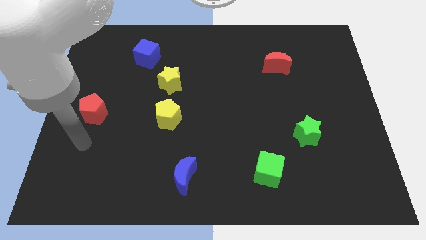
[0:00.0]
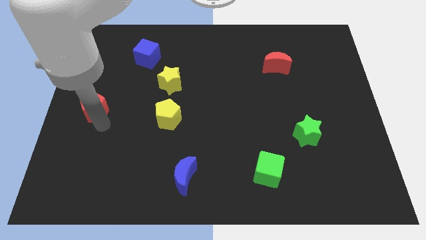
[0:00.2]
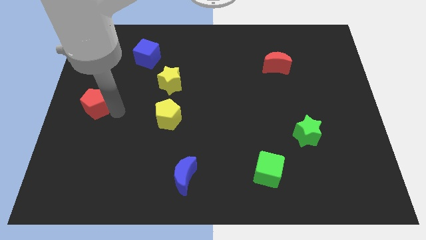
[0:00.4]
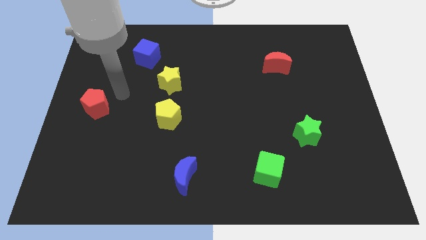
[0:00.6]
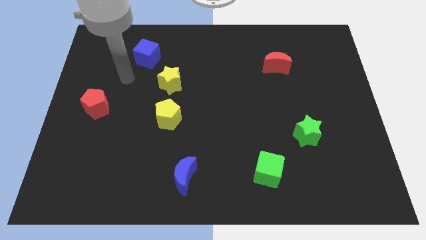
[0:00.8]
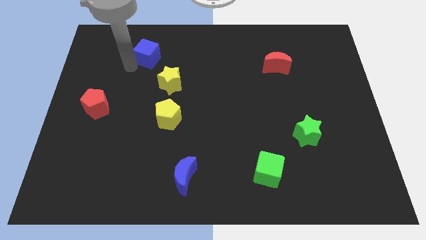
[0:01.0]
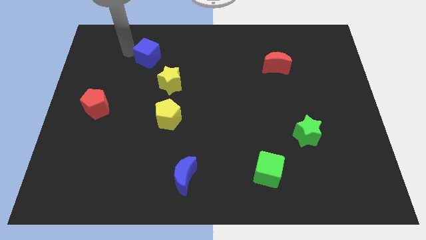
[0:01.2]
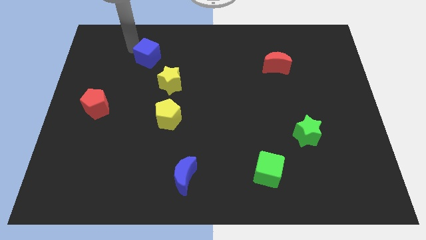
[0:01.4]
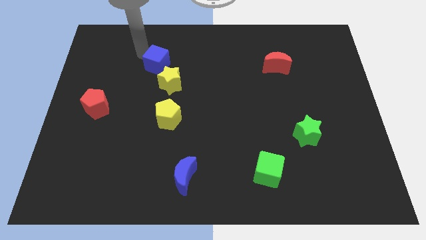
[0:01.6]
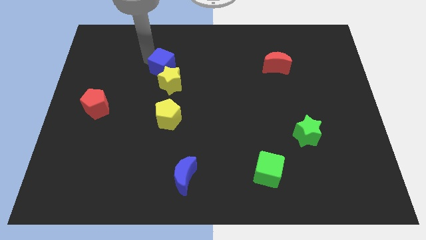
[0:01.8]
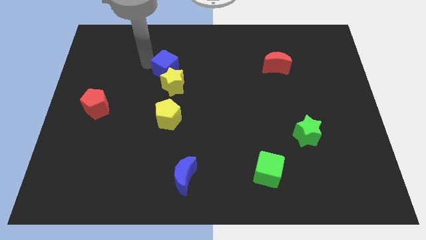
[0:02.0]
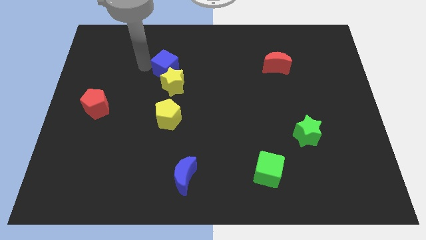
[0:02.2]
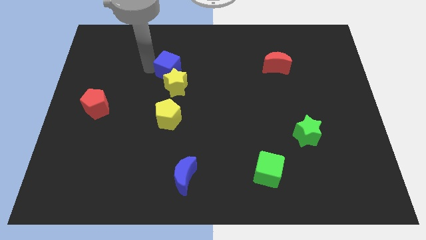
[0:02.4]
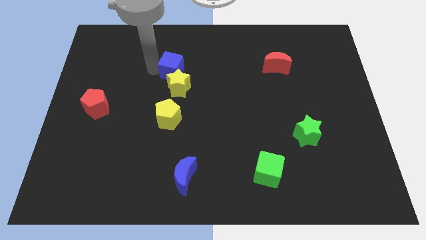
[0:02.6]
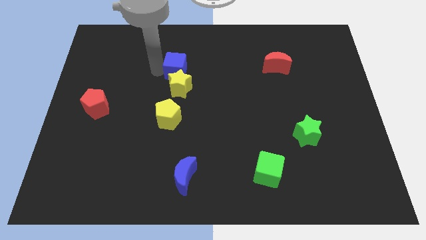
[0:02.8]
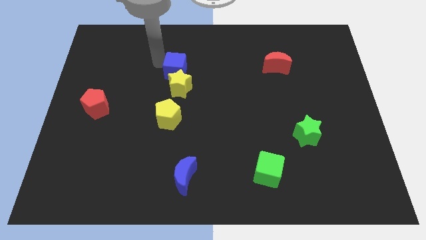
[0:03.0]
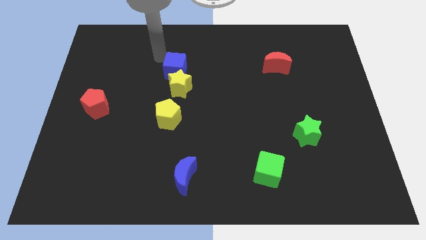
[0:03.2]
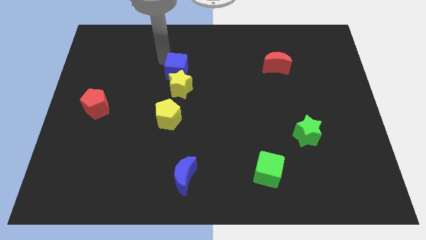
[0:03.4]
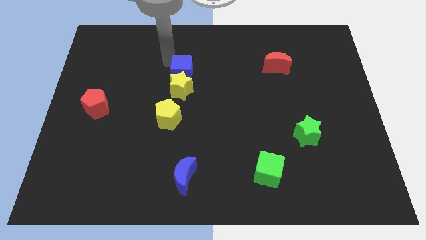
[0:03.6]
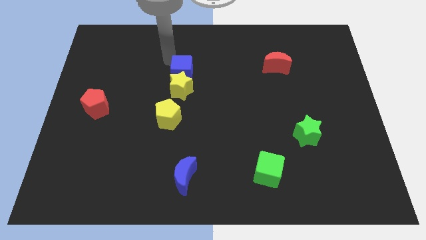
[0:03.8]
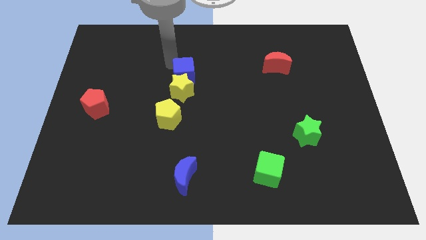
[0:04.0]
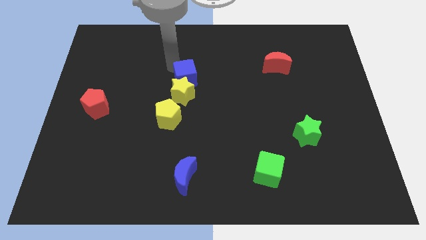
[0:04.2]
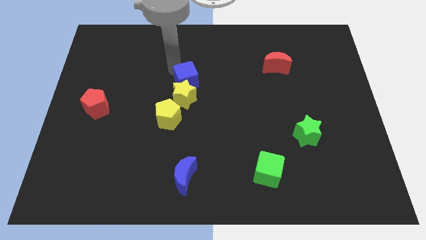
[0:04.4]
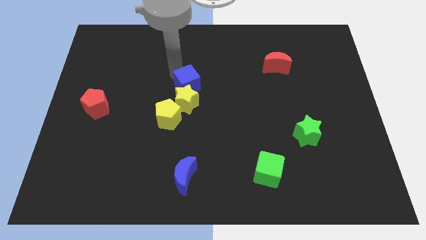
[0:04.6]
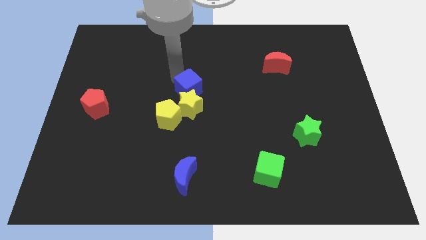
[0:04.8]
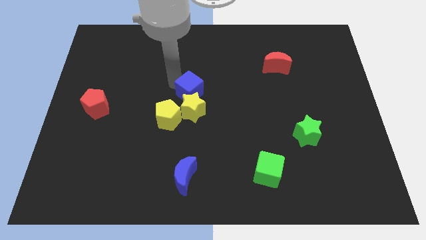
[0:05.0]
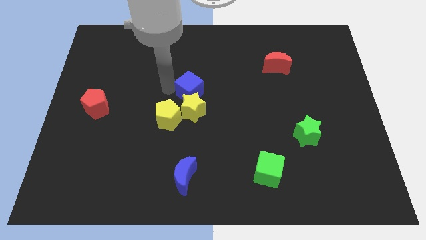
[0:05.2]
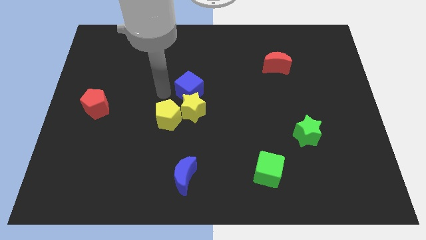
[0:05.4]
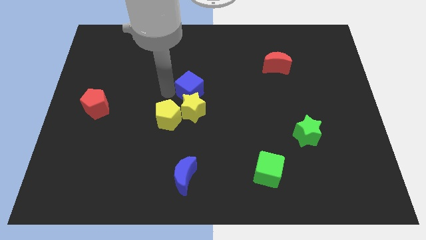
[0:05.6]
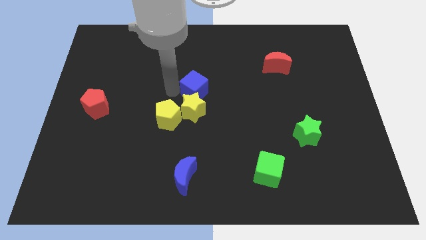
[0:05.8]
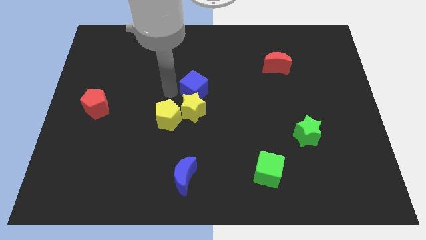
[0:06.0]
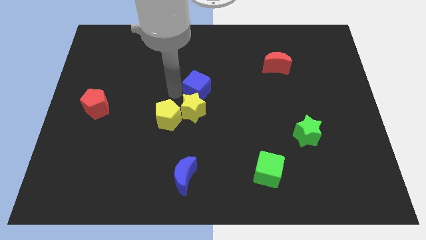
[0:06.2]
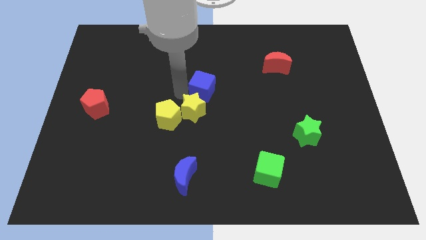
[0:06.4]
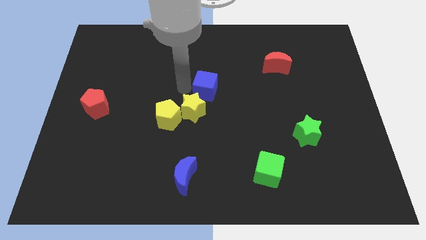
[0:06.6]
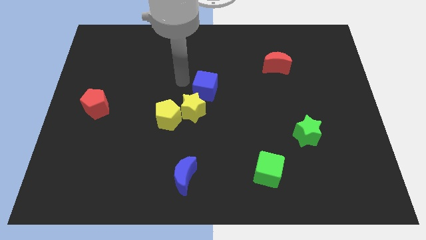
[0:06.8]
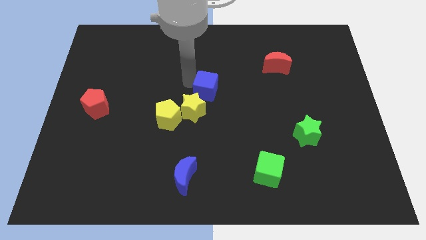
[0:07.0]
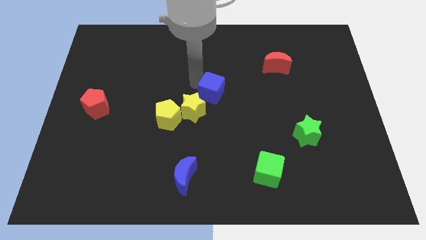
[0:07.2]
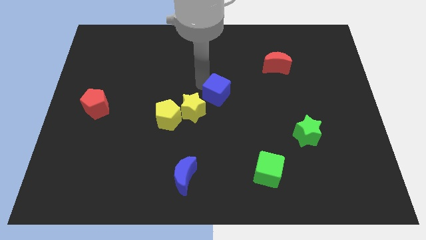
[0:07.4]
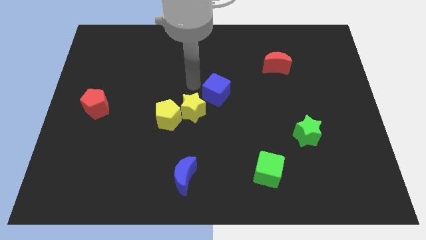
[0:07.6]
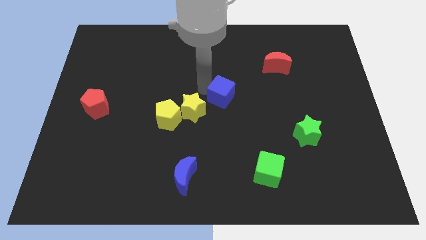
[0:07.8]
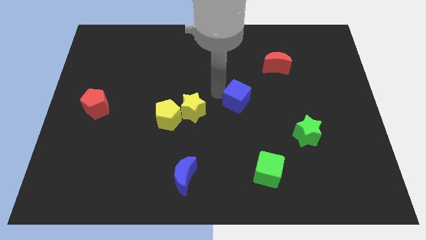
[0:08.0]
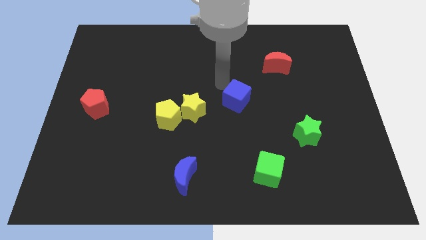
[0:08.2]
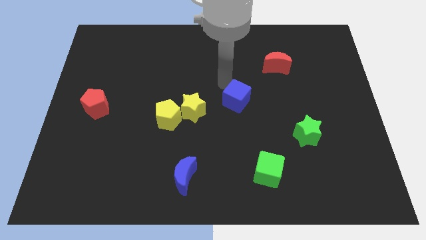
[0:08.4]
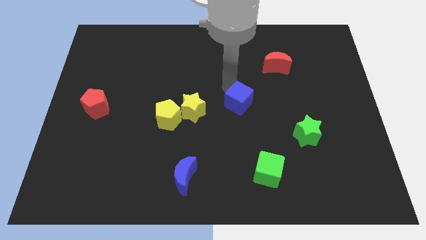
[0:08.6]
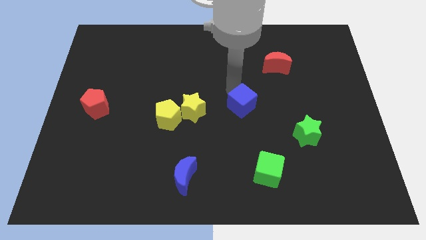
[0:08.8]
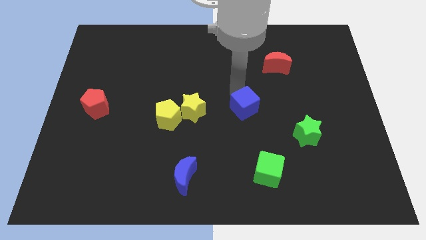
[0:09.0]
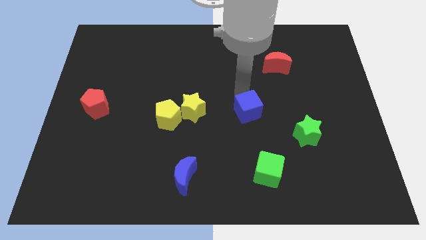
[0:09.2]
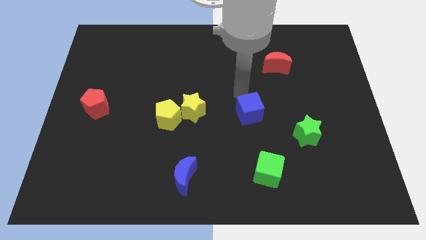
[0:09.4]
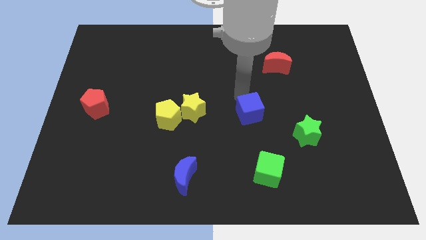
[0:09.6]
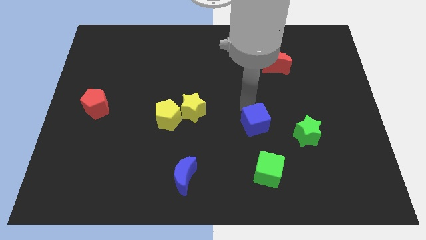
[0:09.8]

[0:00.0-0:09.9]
move the blue cube to the left of the green star

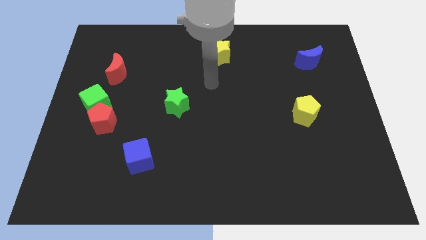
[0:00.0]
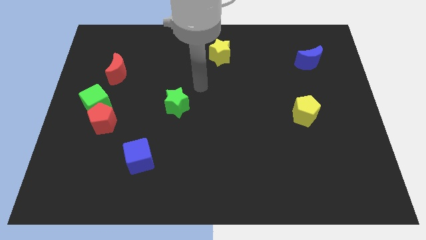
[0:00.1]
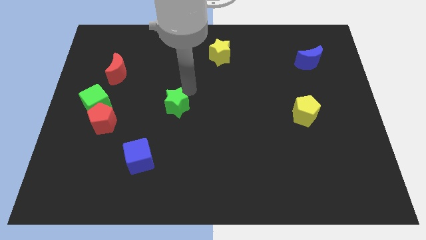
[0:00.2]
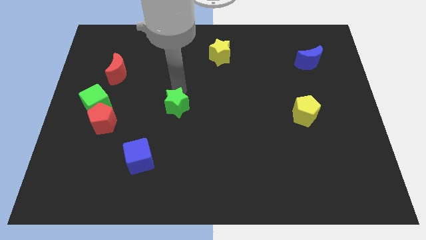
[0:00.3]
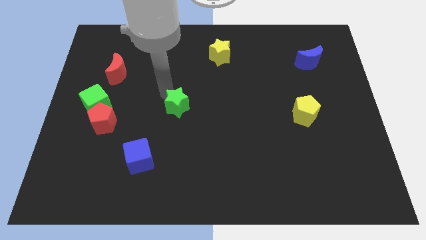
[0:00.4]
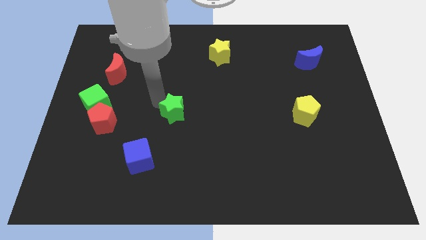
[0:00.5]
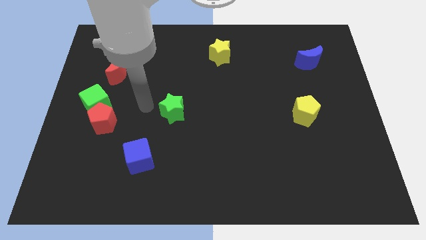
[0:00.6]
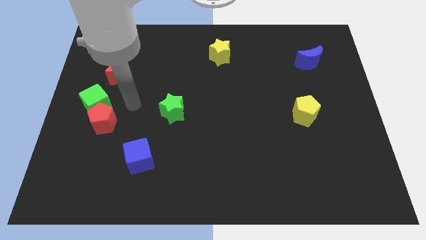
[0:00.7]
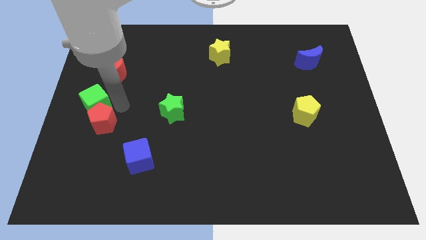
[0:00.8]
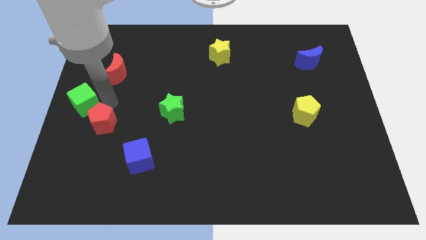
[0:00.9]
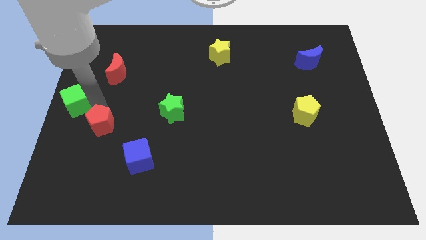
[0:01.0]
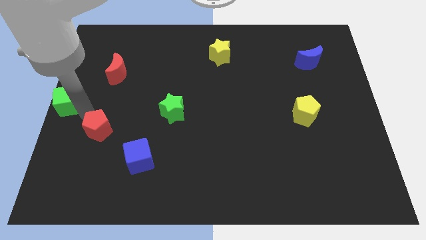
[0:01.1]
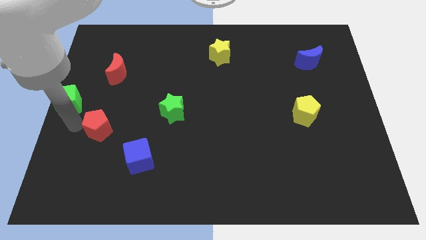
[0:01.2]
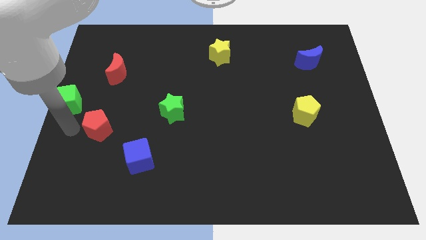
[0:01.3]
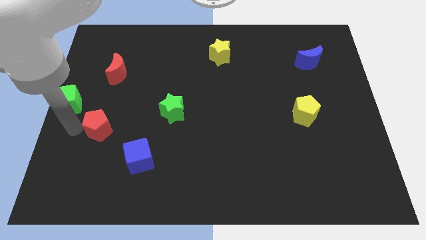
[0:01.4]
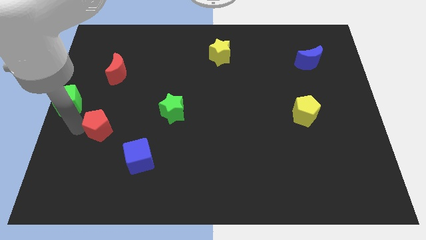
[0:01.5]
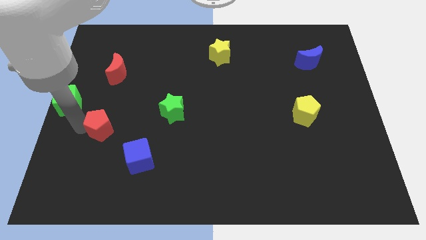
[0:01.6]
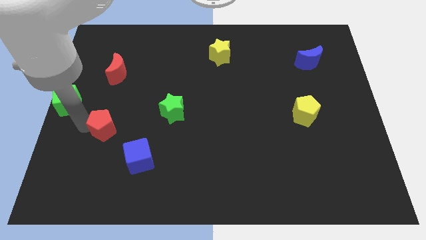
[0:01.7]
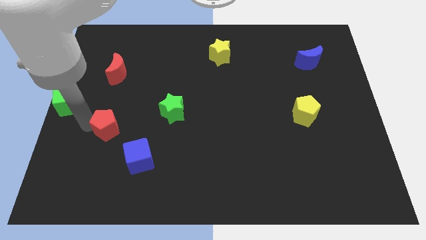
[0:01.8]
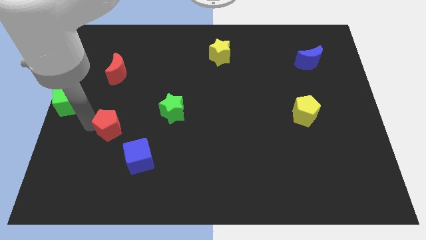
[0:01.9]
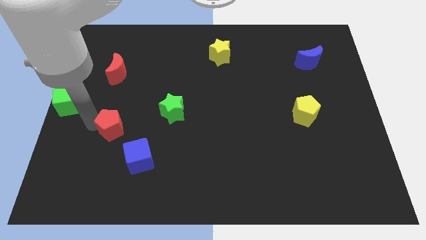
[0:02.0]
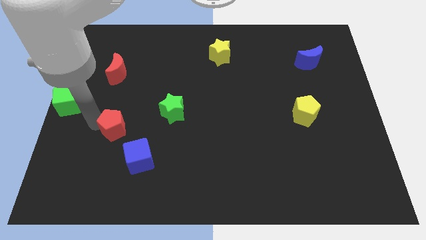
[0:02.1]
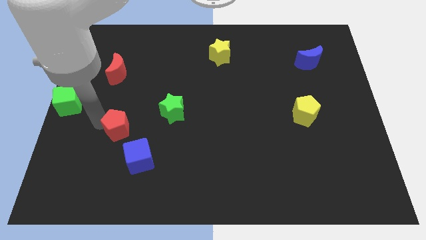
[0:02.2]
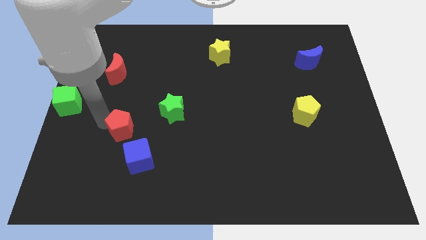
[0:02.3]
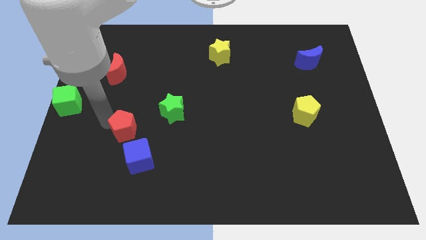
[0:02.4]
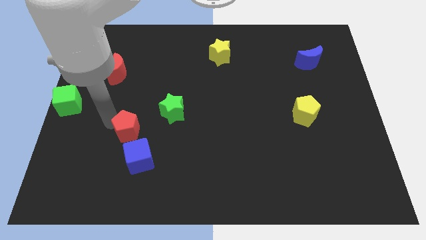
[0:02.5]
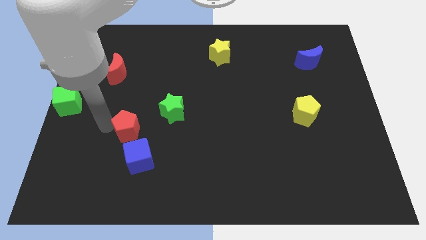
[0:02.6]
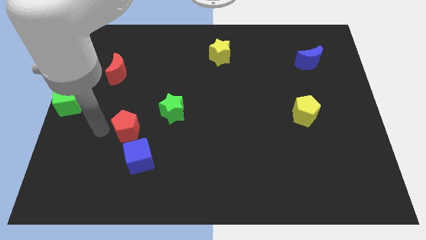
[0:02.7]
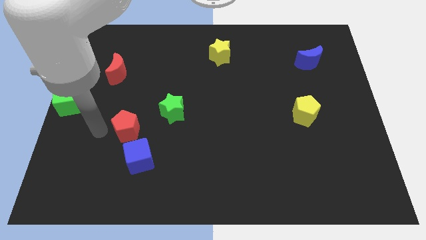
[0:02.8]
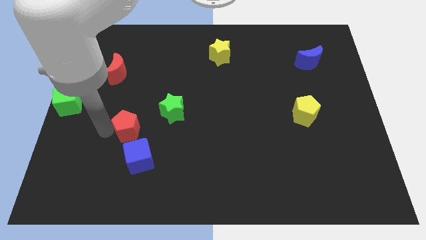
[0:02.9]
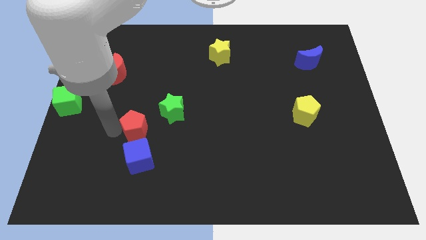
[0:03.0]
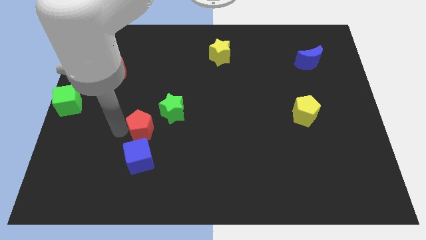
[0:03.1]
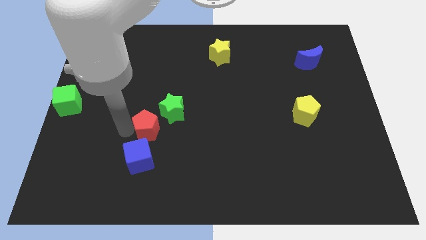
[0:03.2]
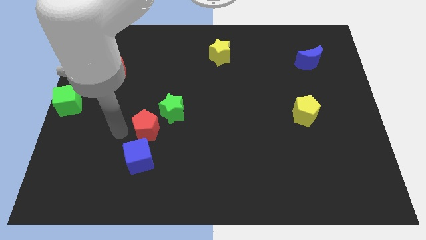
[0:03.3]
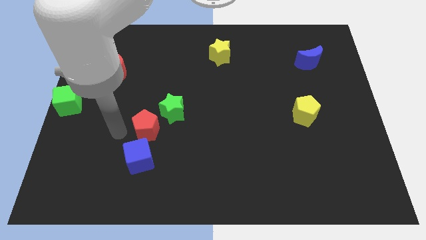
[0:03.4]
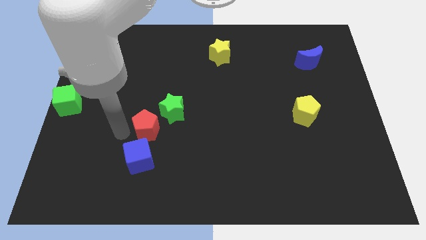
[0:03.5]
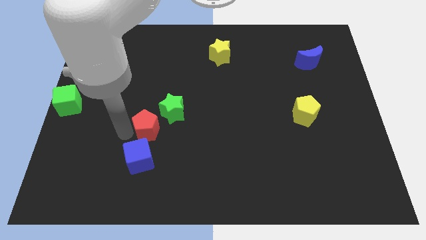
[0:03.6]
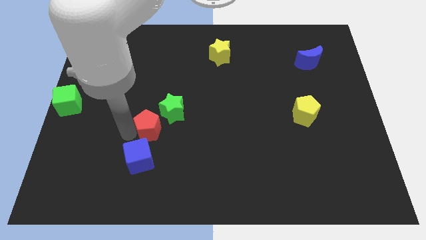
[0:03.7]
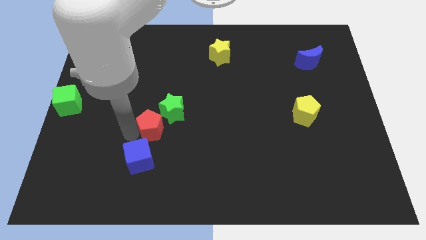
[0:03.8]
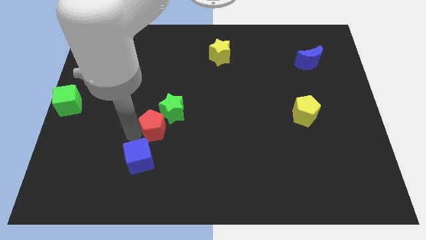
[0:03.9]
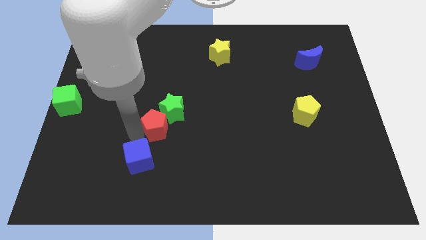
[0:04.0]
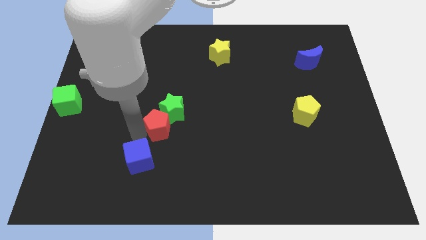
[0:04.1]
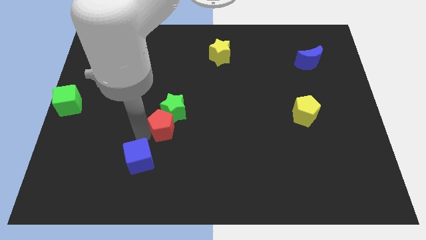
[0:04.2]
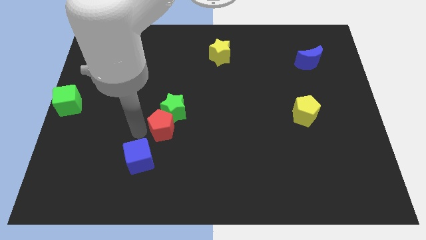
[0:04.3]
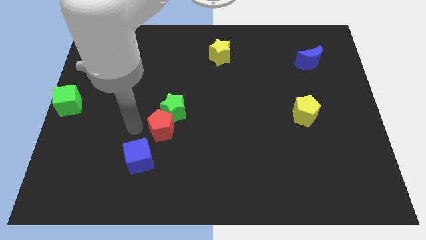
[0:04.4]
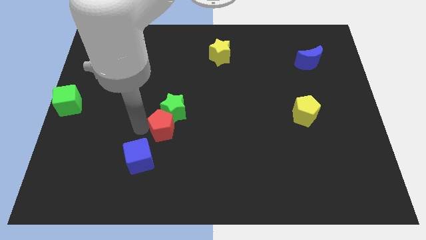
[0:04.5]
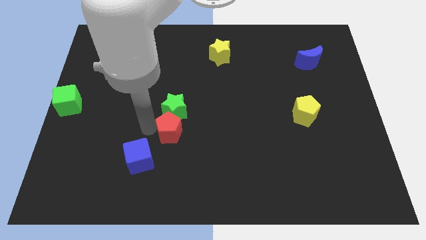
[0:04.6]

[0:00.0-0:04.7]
push the red pentagon to the bottom right of the green star
